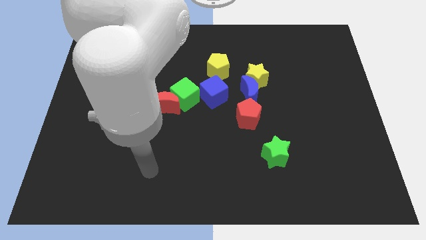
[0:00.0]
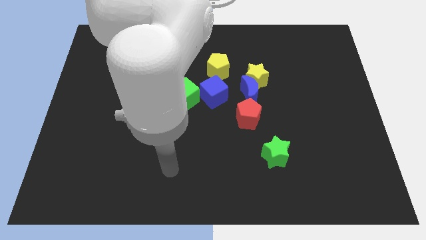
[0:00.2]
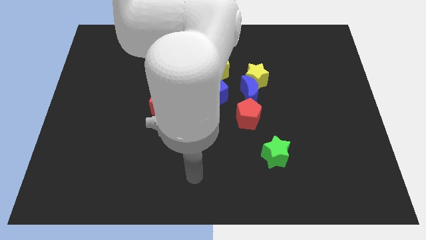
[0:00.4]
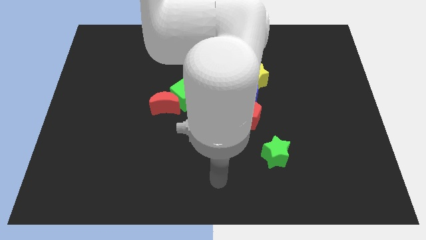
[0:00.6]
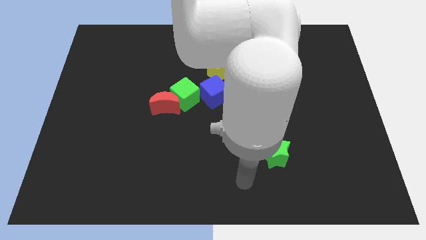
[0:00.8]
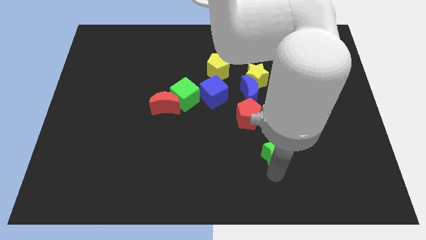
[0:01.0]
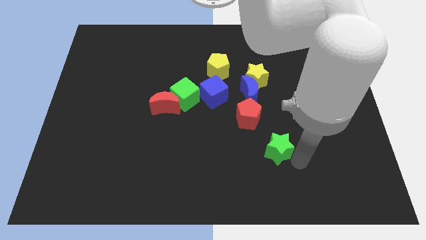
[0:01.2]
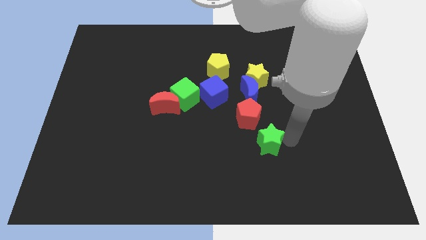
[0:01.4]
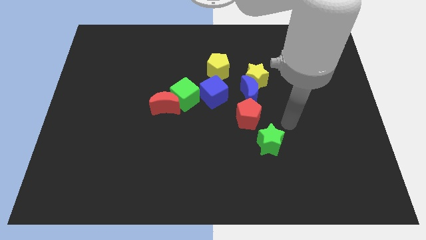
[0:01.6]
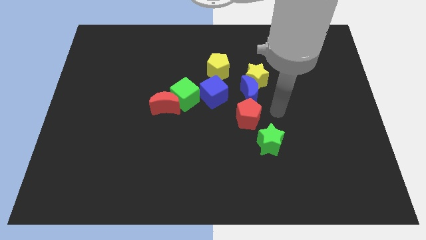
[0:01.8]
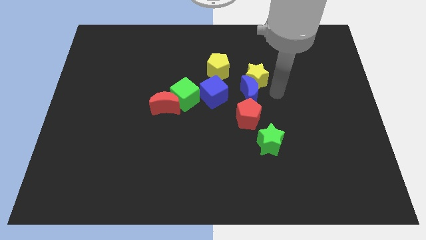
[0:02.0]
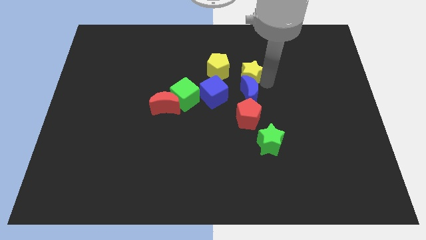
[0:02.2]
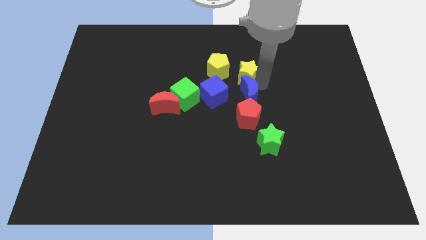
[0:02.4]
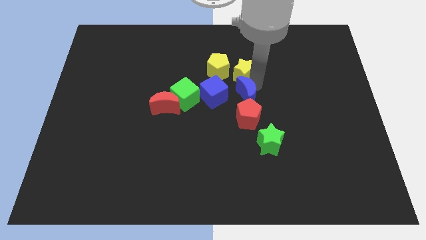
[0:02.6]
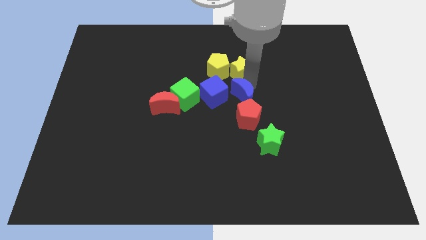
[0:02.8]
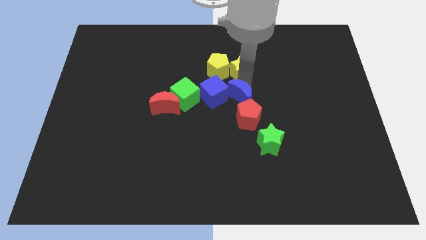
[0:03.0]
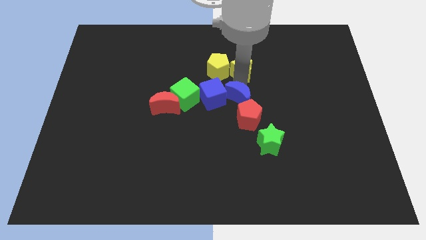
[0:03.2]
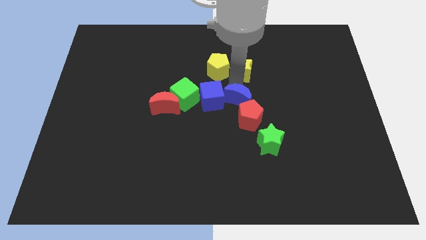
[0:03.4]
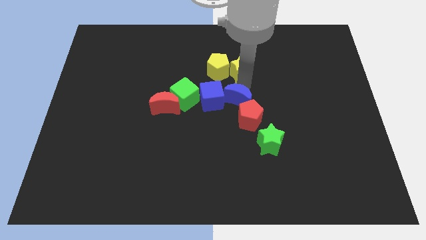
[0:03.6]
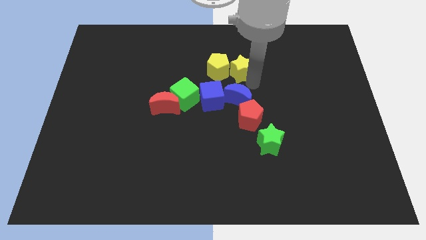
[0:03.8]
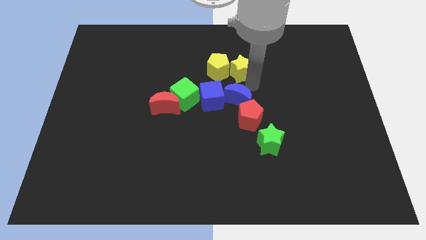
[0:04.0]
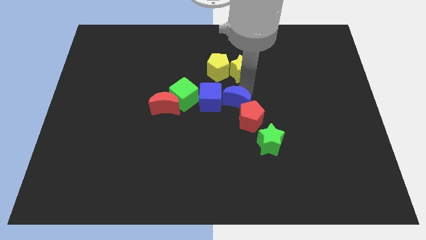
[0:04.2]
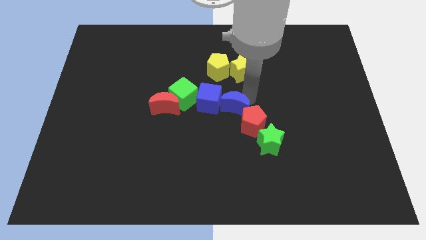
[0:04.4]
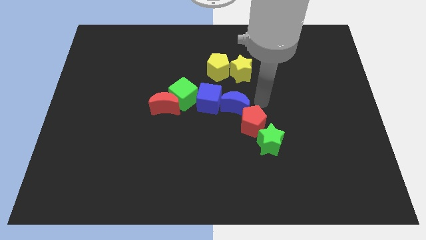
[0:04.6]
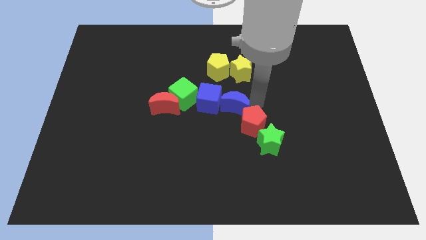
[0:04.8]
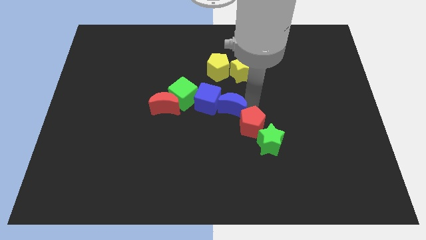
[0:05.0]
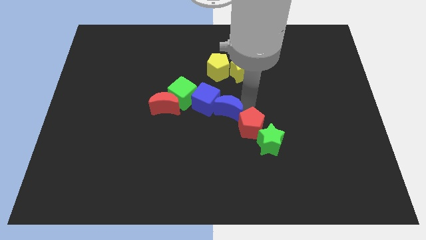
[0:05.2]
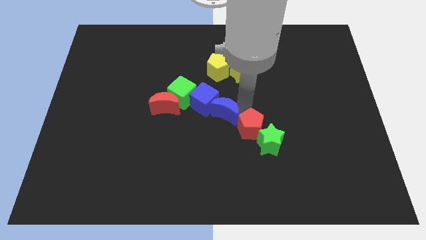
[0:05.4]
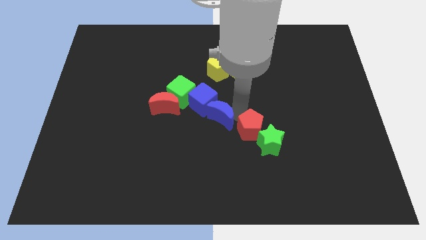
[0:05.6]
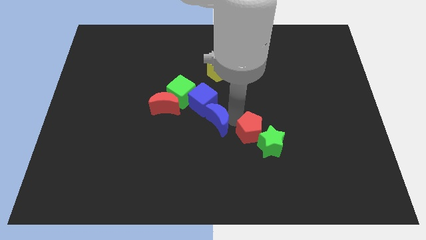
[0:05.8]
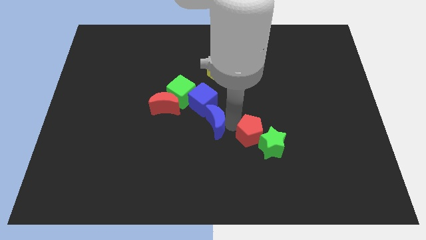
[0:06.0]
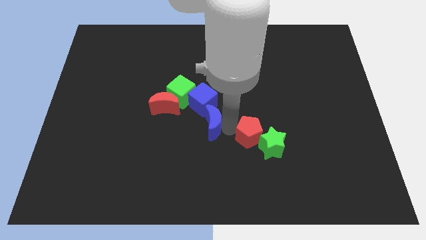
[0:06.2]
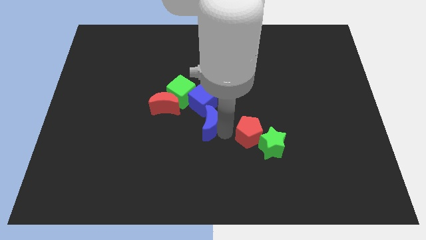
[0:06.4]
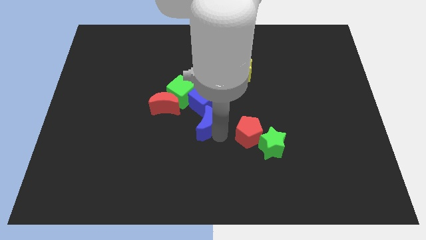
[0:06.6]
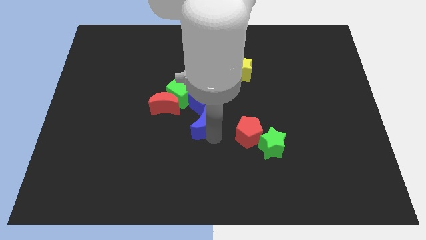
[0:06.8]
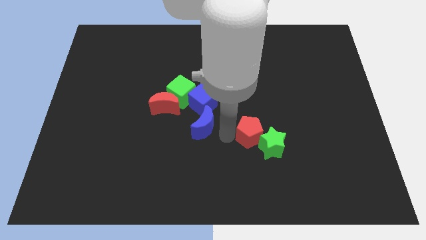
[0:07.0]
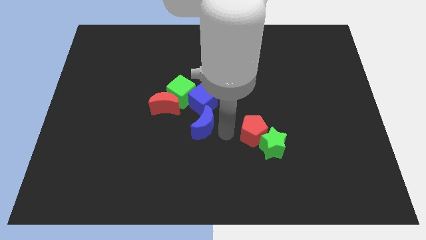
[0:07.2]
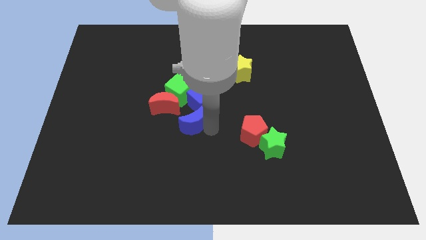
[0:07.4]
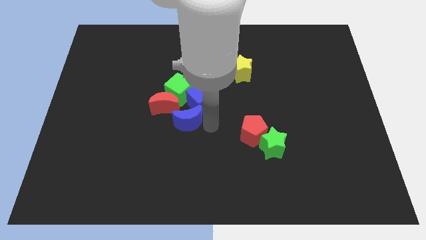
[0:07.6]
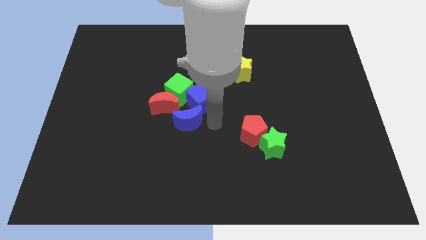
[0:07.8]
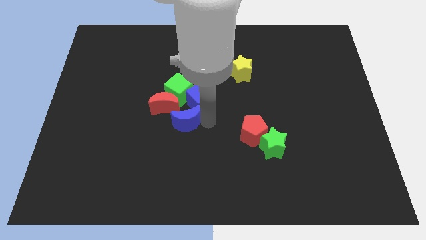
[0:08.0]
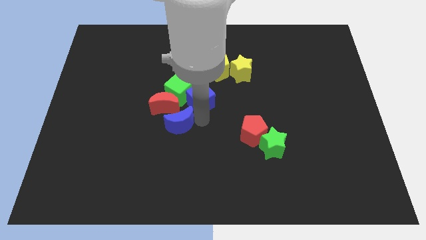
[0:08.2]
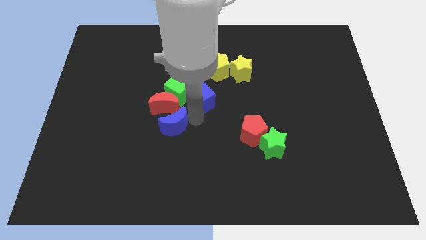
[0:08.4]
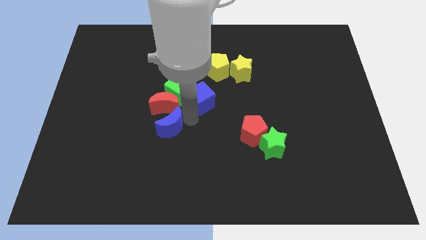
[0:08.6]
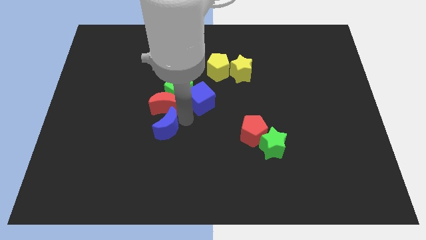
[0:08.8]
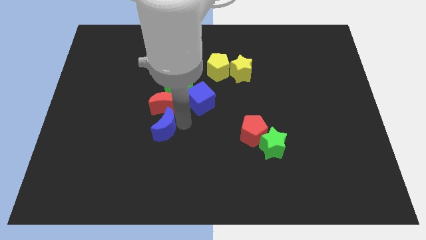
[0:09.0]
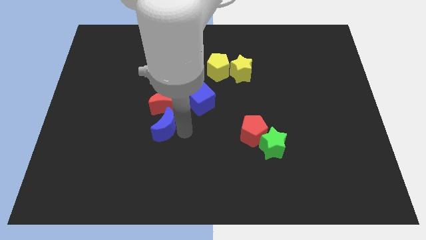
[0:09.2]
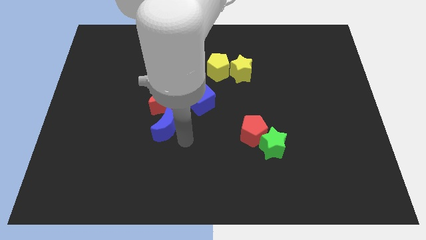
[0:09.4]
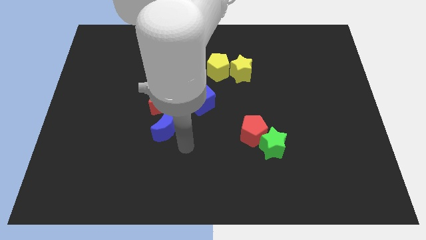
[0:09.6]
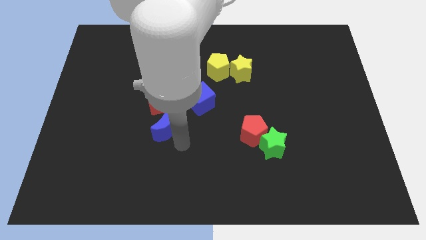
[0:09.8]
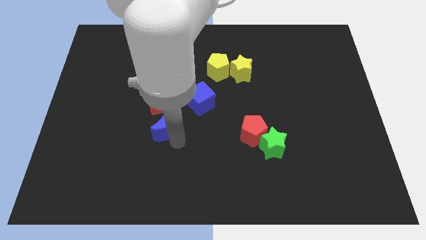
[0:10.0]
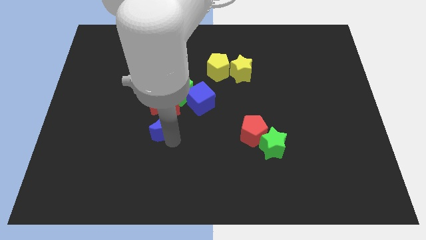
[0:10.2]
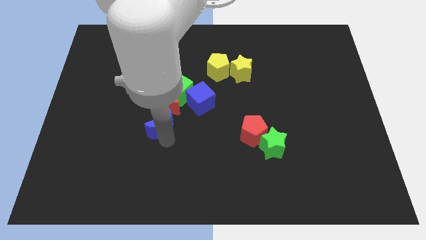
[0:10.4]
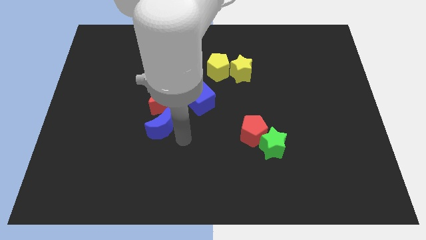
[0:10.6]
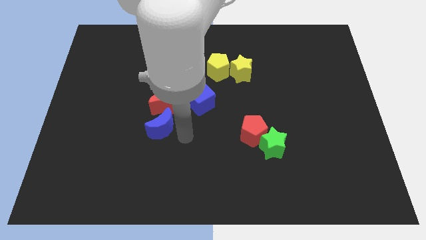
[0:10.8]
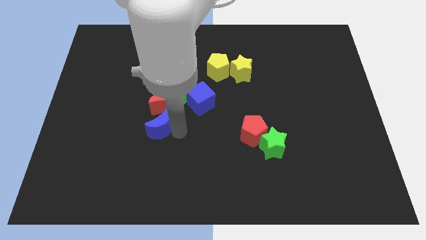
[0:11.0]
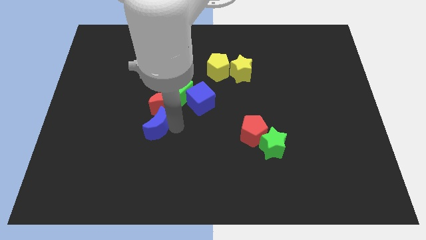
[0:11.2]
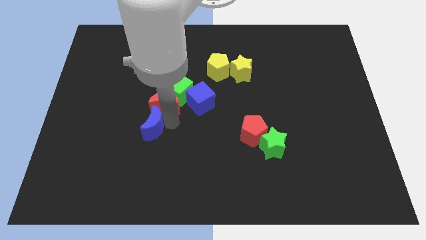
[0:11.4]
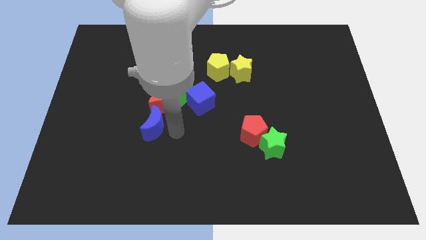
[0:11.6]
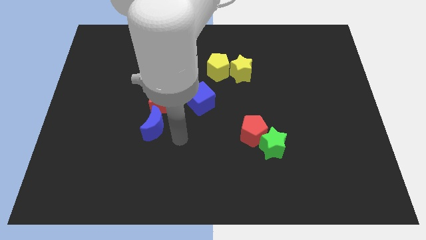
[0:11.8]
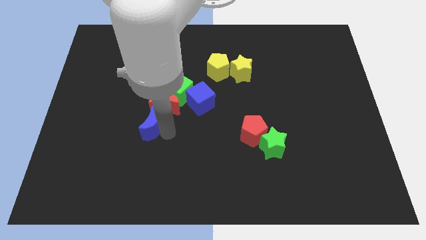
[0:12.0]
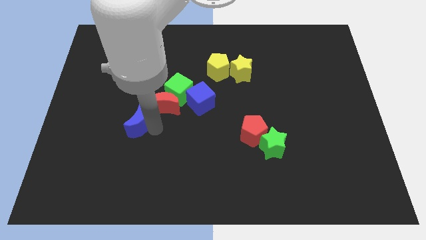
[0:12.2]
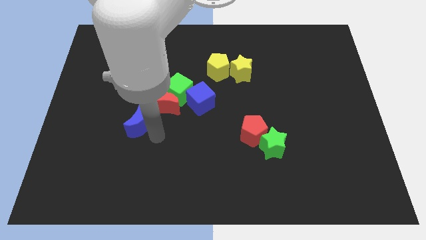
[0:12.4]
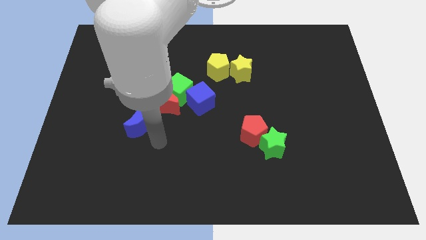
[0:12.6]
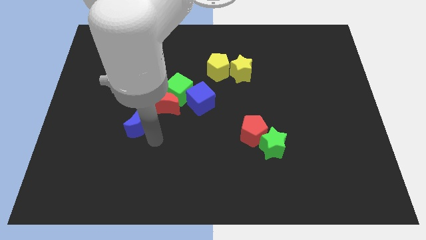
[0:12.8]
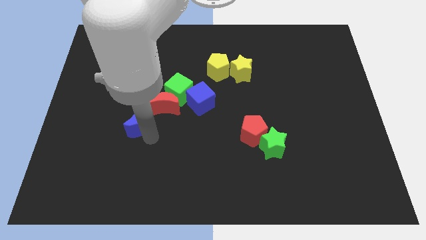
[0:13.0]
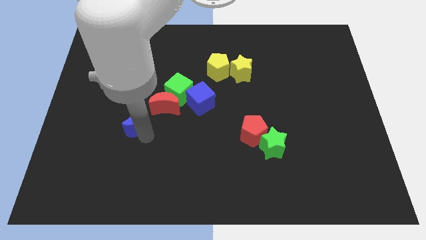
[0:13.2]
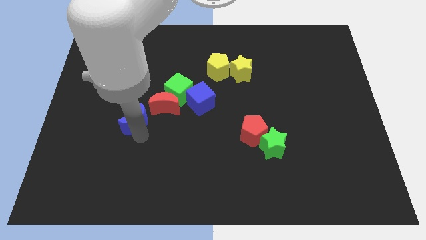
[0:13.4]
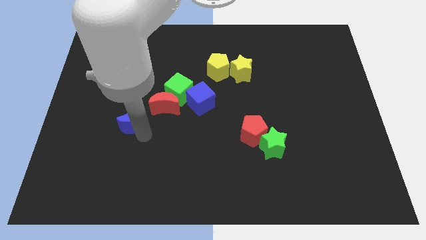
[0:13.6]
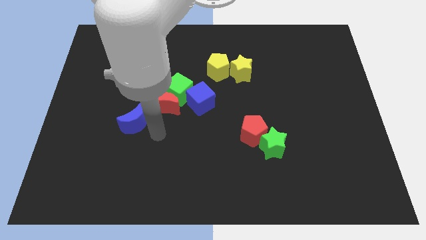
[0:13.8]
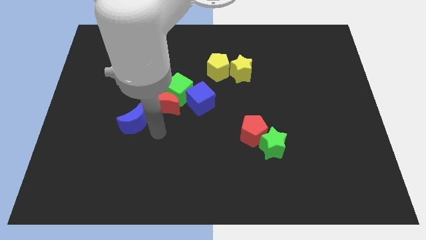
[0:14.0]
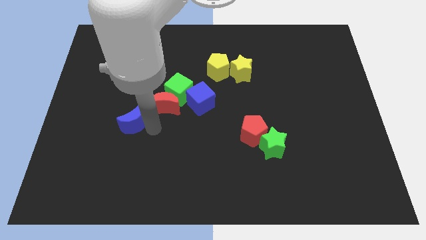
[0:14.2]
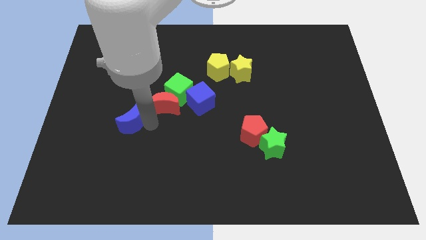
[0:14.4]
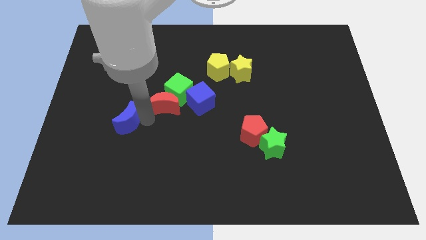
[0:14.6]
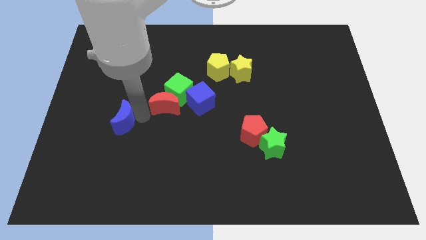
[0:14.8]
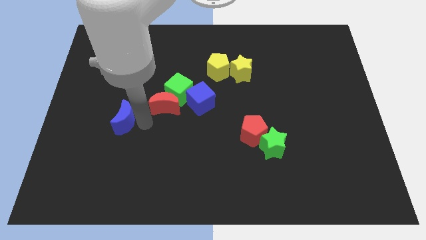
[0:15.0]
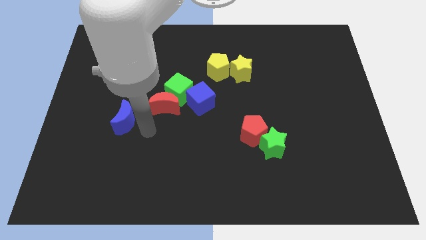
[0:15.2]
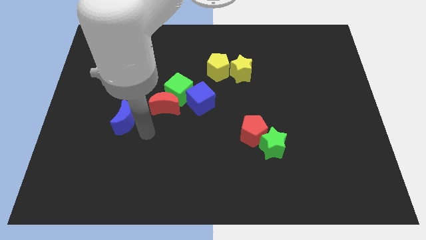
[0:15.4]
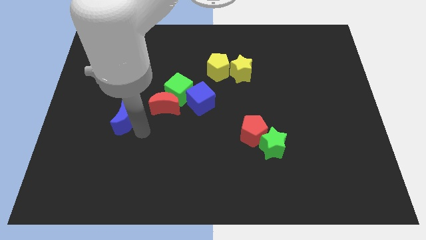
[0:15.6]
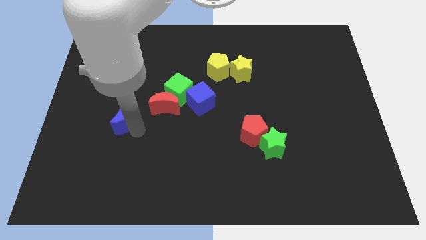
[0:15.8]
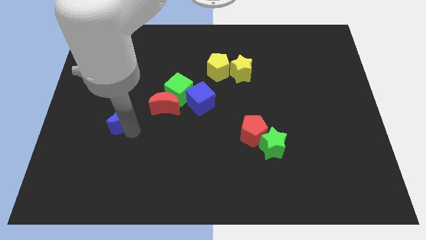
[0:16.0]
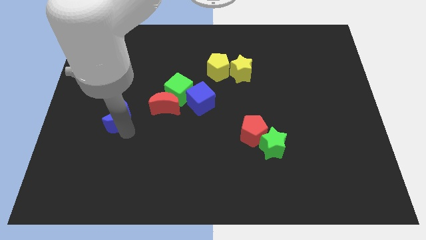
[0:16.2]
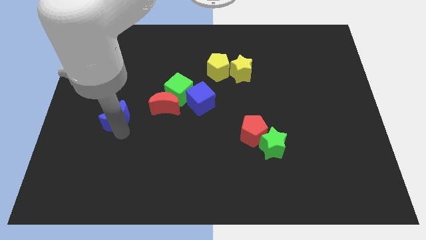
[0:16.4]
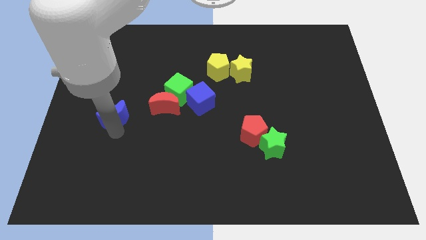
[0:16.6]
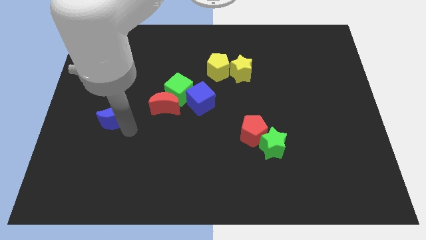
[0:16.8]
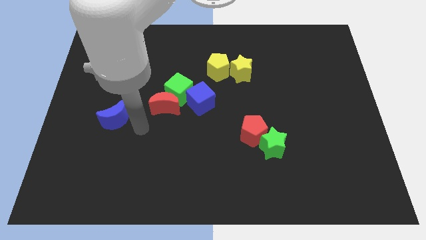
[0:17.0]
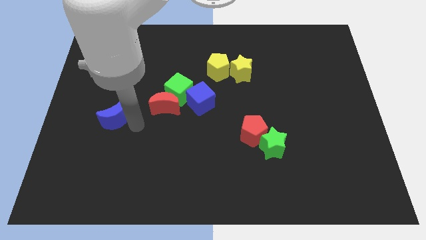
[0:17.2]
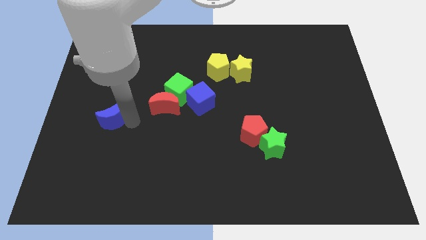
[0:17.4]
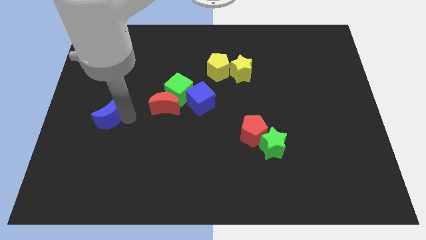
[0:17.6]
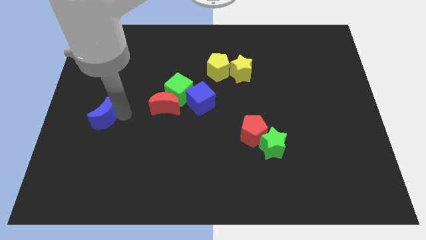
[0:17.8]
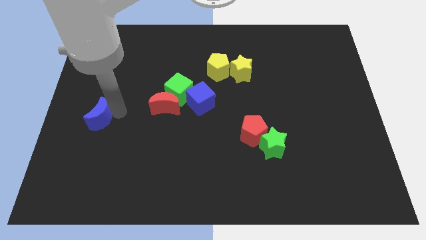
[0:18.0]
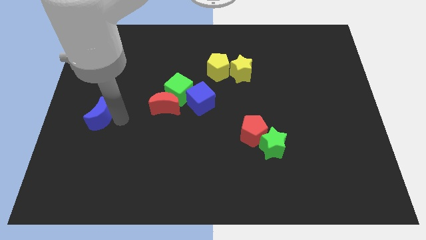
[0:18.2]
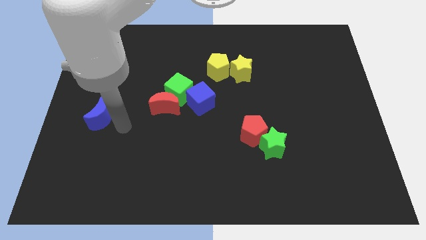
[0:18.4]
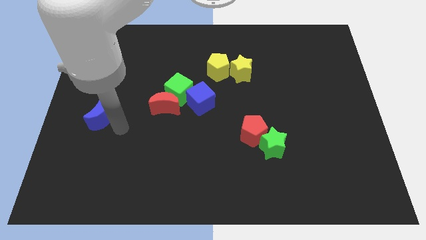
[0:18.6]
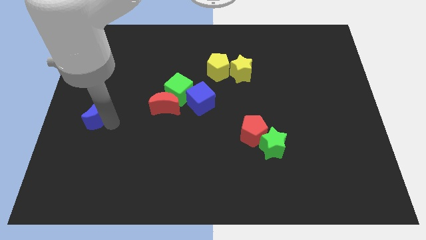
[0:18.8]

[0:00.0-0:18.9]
slide the blue moon to the left side
